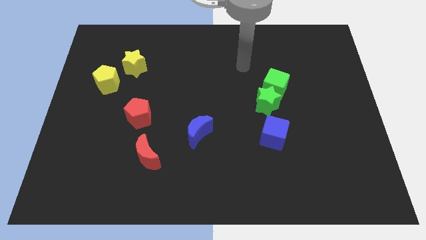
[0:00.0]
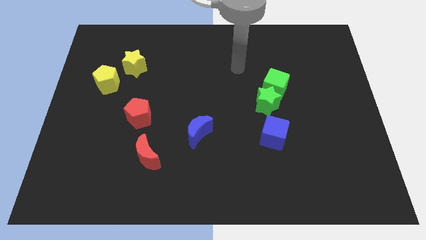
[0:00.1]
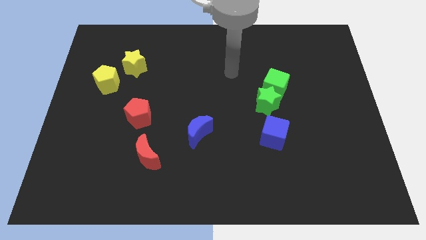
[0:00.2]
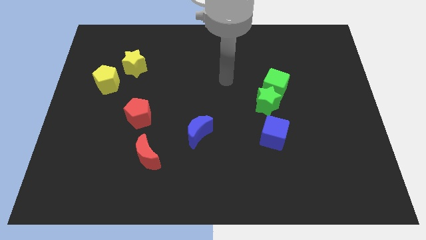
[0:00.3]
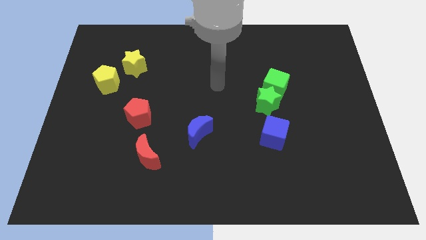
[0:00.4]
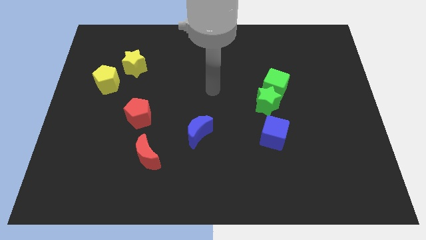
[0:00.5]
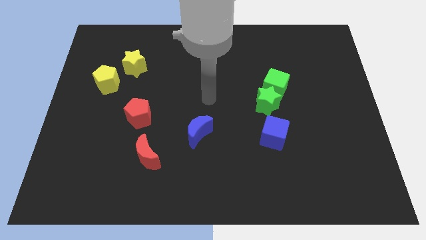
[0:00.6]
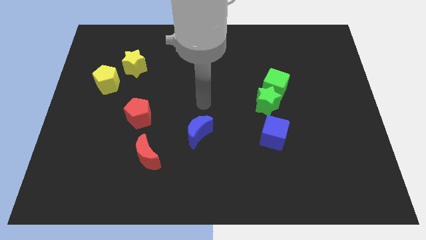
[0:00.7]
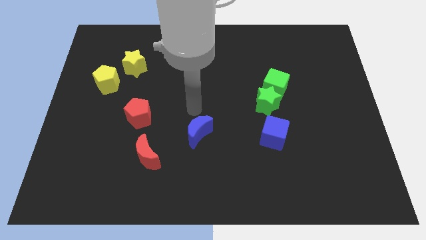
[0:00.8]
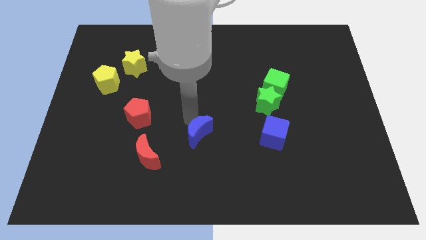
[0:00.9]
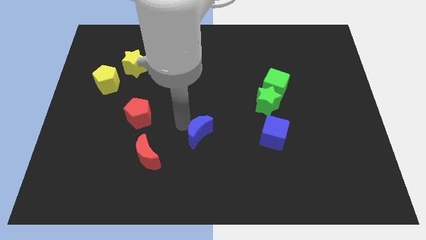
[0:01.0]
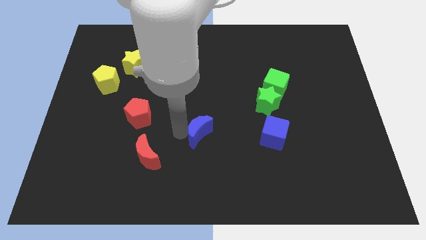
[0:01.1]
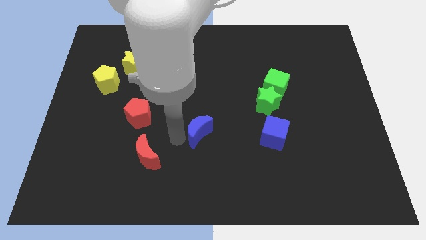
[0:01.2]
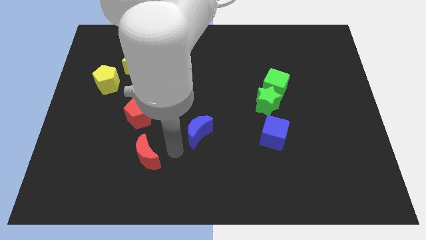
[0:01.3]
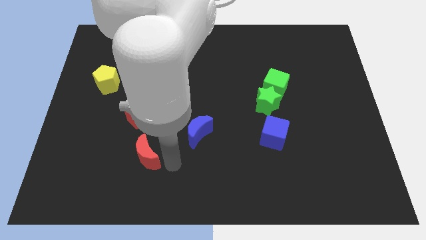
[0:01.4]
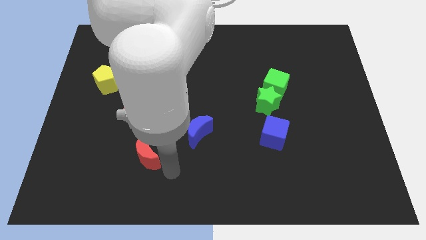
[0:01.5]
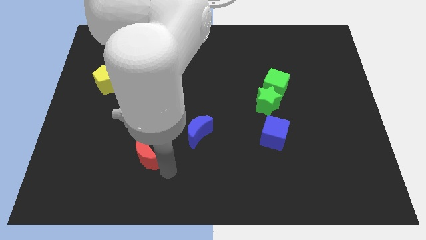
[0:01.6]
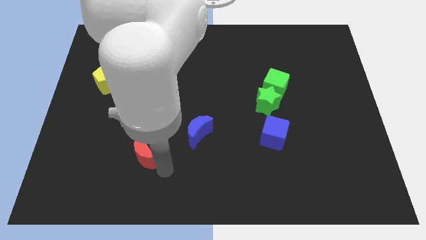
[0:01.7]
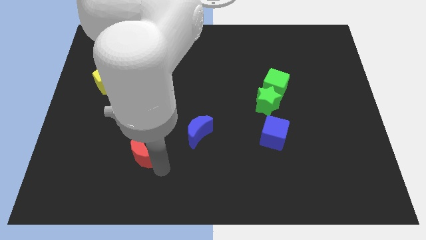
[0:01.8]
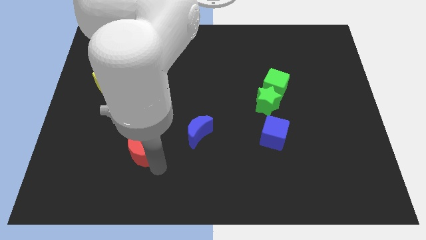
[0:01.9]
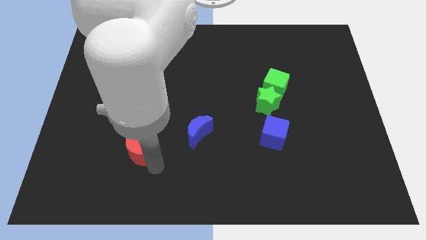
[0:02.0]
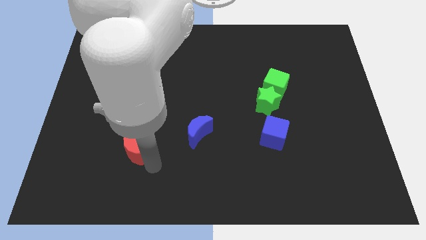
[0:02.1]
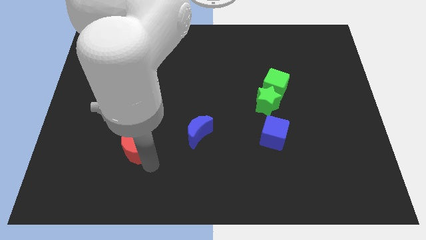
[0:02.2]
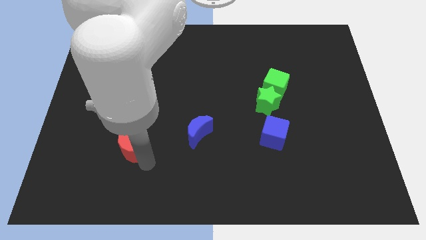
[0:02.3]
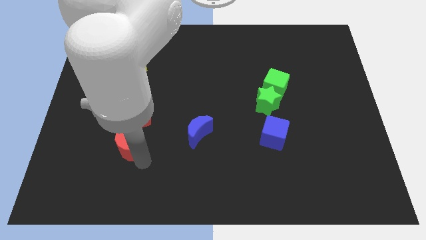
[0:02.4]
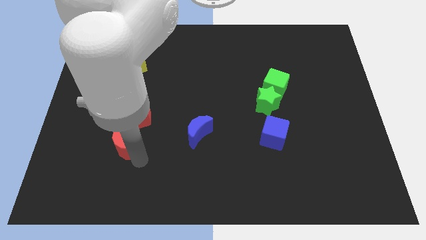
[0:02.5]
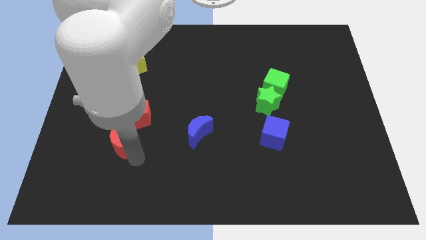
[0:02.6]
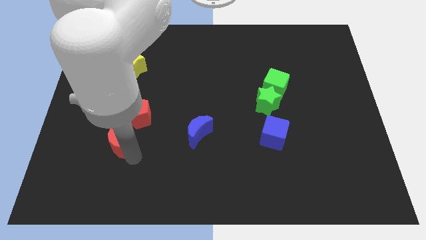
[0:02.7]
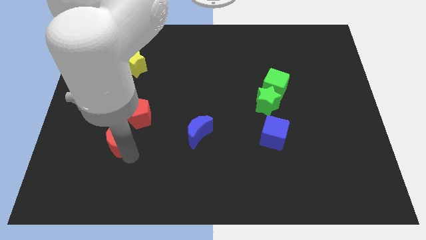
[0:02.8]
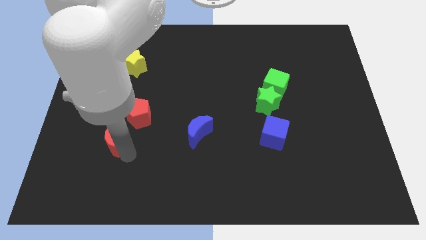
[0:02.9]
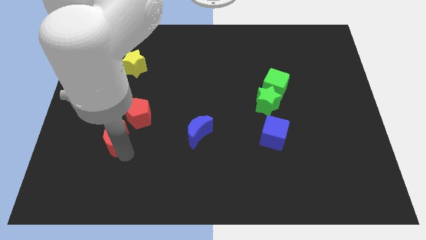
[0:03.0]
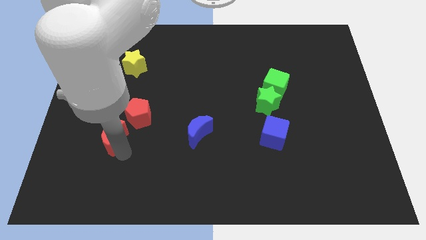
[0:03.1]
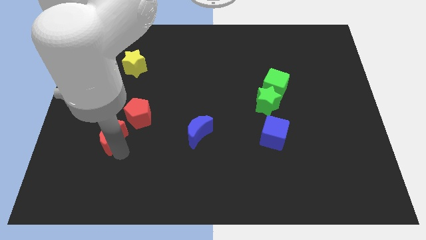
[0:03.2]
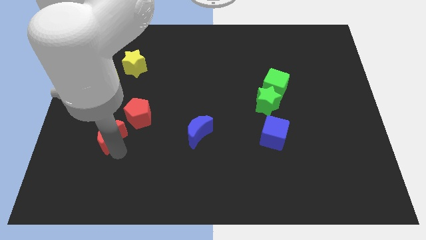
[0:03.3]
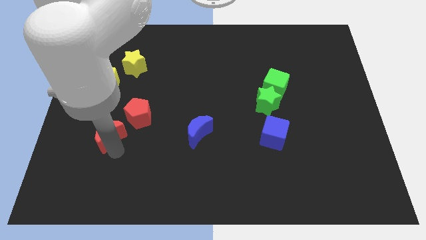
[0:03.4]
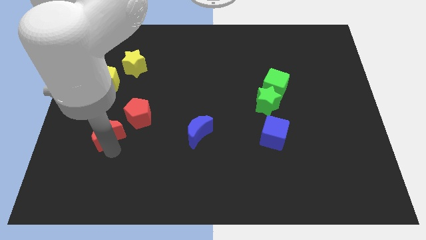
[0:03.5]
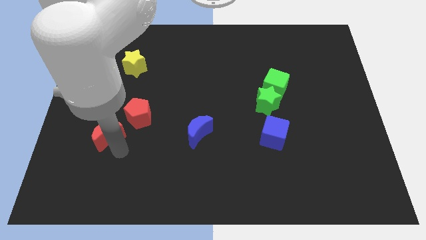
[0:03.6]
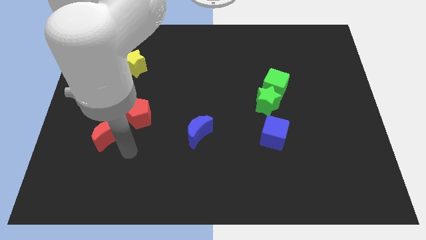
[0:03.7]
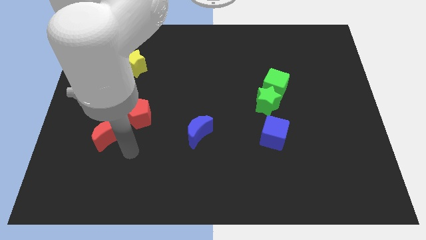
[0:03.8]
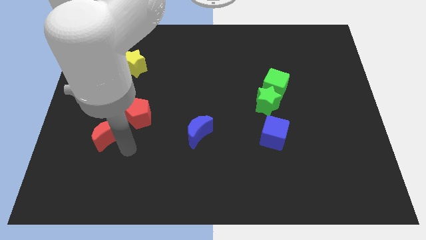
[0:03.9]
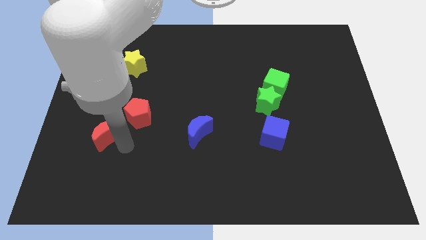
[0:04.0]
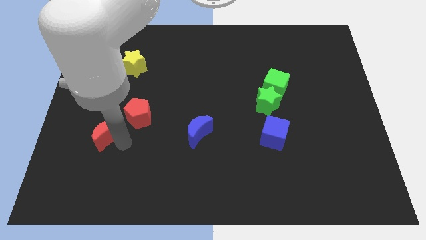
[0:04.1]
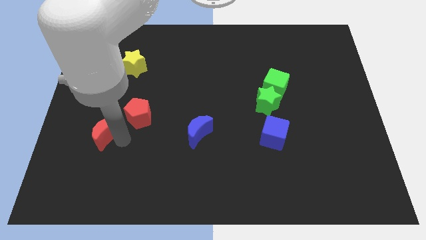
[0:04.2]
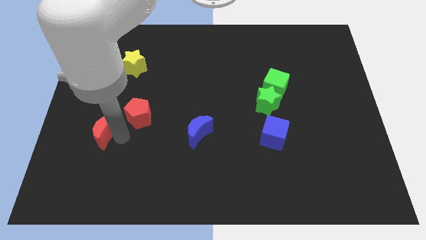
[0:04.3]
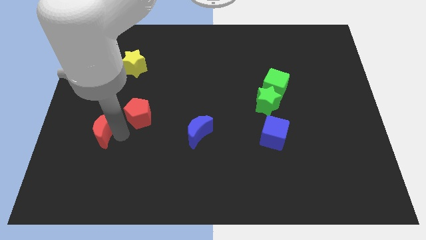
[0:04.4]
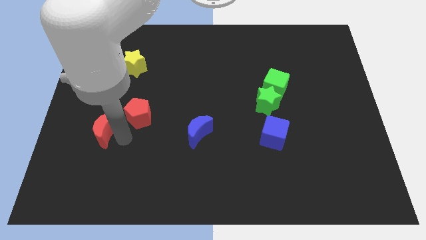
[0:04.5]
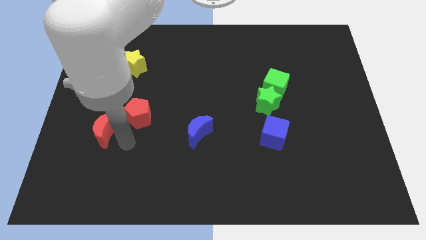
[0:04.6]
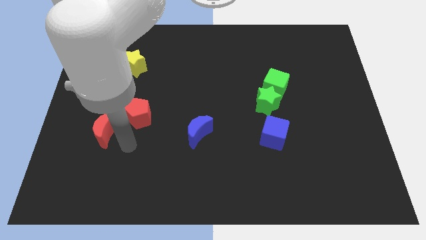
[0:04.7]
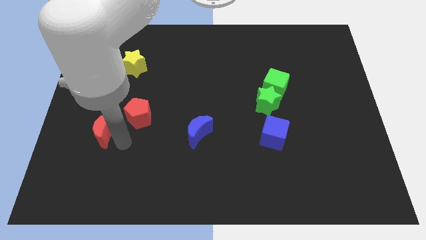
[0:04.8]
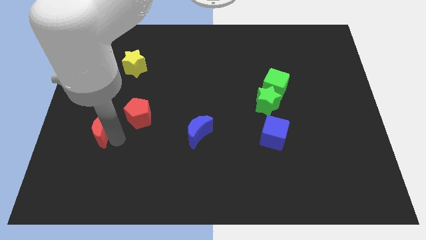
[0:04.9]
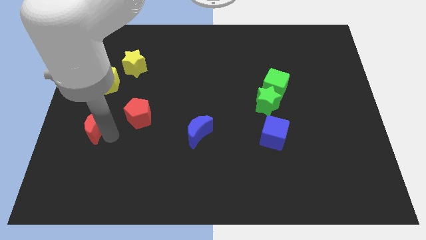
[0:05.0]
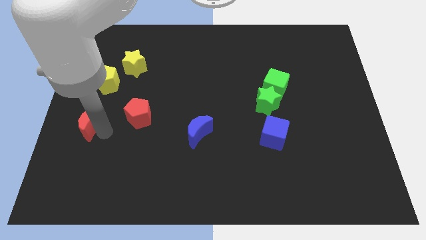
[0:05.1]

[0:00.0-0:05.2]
put the red moon to the left side

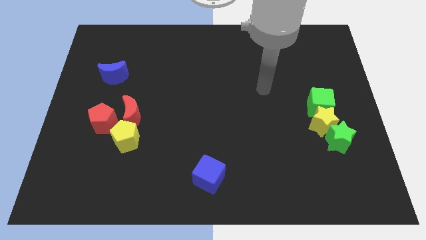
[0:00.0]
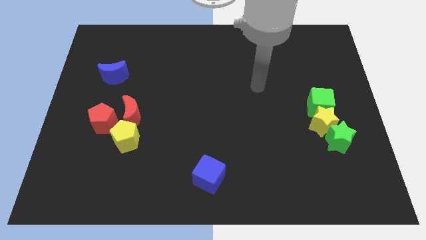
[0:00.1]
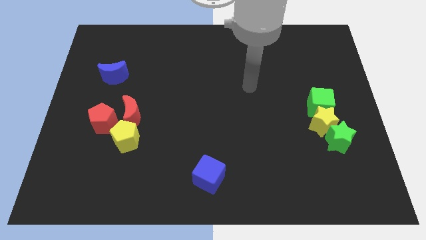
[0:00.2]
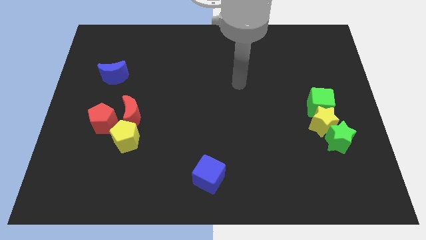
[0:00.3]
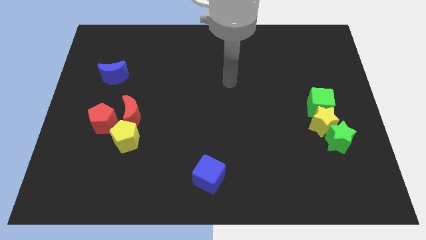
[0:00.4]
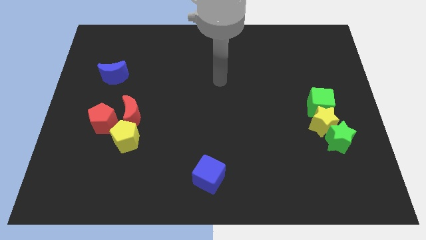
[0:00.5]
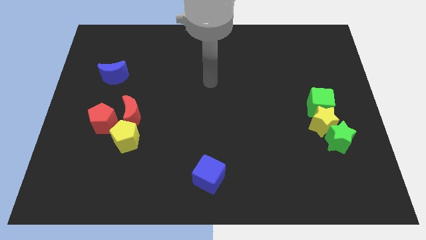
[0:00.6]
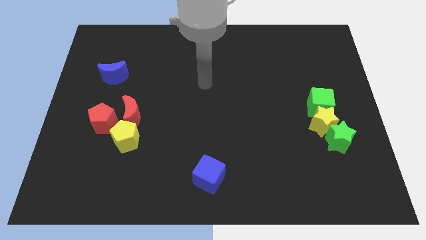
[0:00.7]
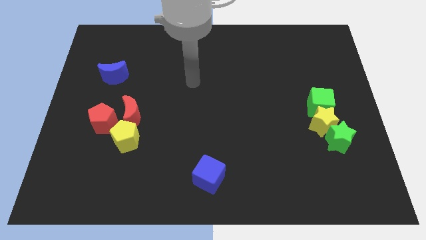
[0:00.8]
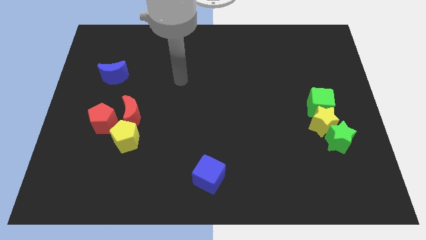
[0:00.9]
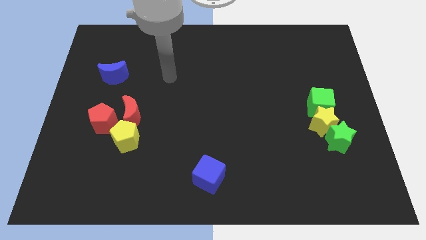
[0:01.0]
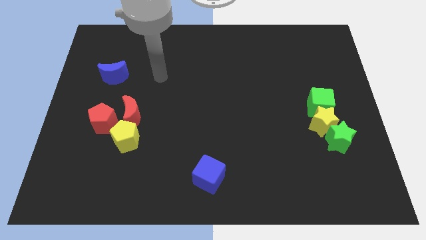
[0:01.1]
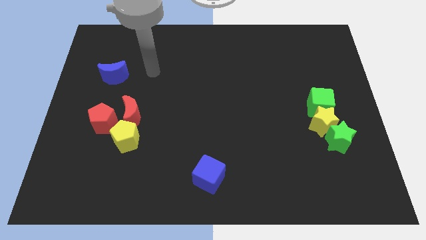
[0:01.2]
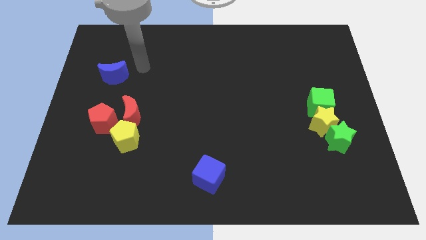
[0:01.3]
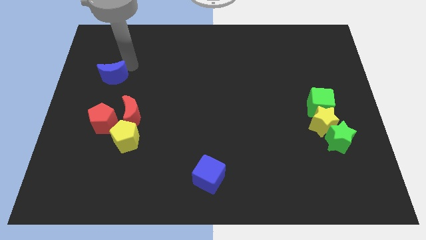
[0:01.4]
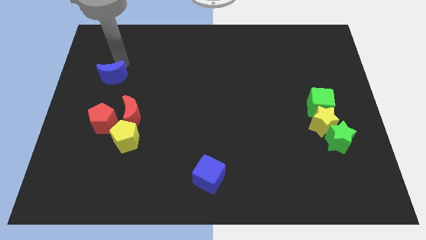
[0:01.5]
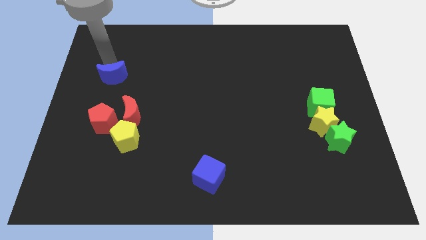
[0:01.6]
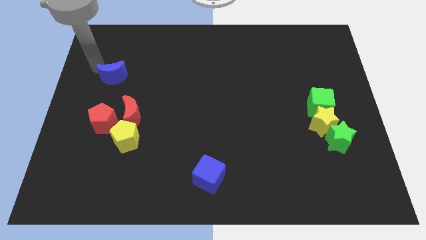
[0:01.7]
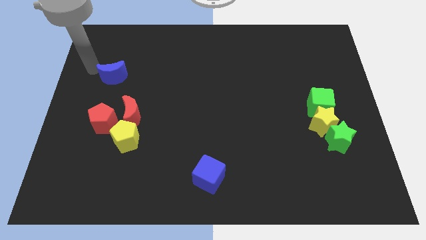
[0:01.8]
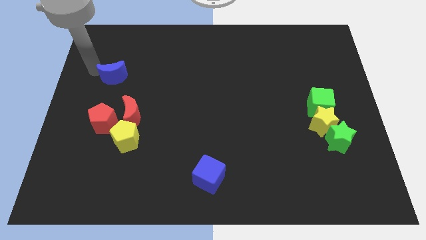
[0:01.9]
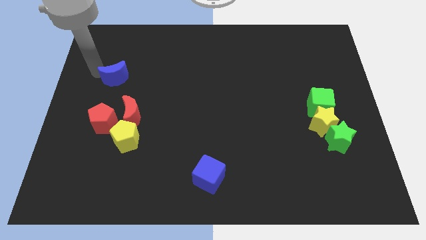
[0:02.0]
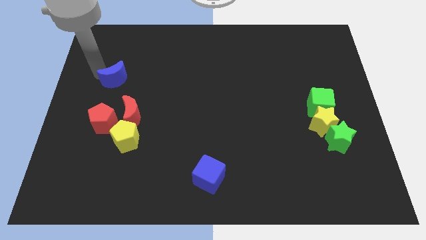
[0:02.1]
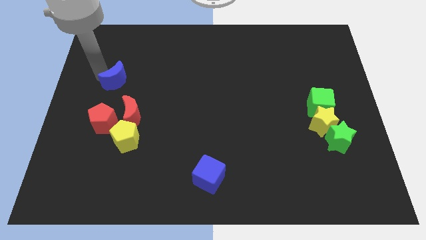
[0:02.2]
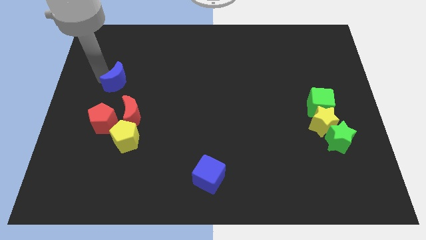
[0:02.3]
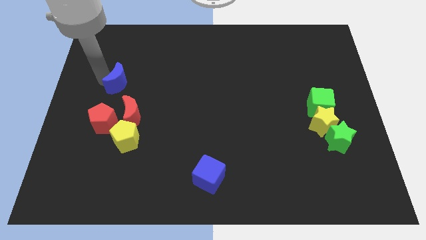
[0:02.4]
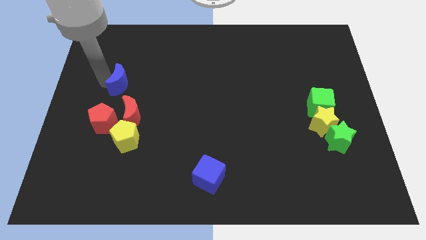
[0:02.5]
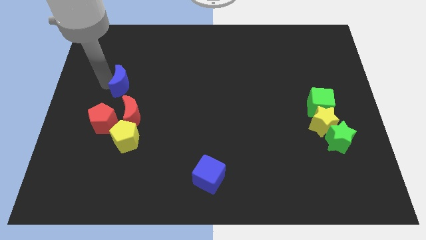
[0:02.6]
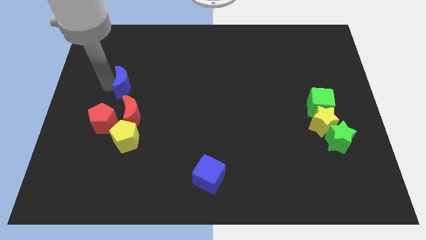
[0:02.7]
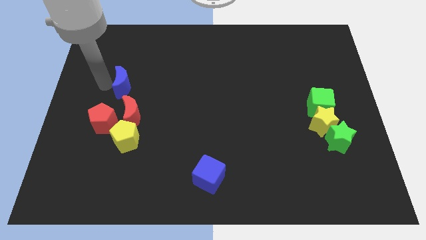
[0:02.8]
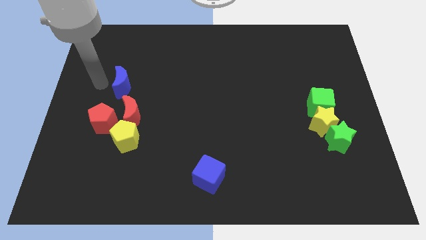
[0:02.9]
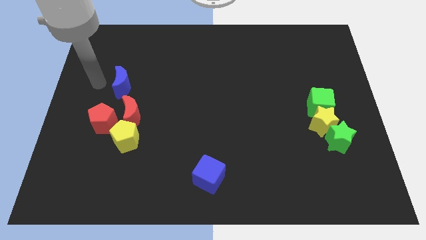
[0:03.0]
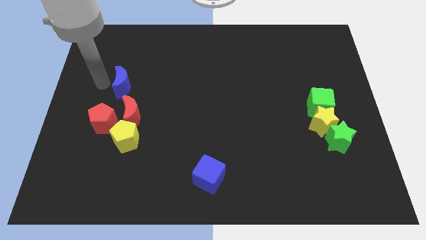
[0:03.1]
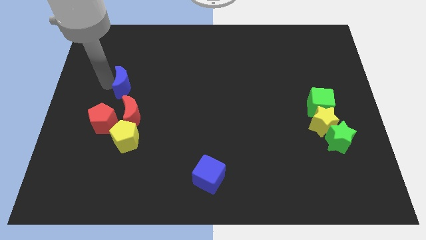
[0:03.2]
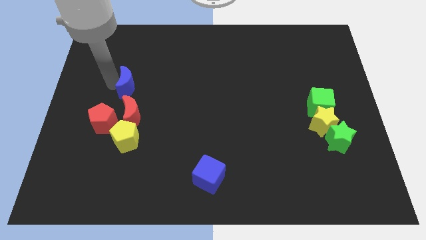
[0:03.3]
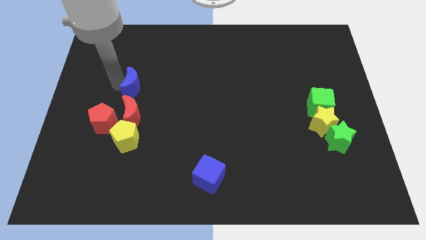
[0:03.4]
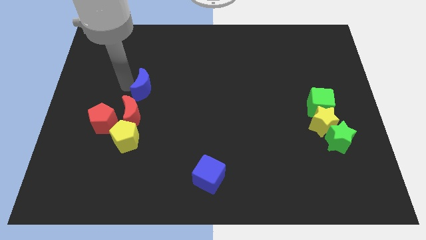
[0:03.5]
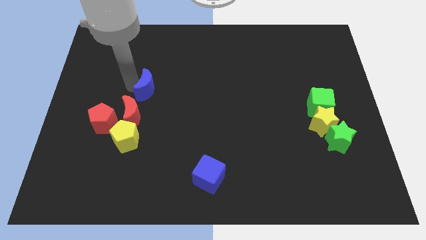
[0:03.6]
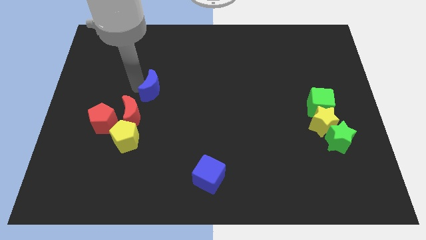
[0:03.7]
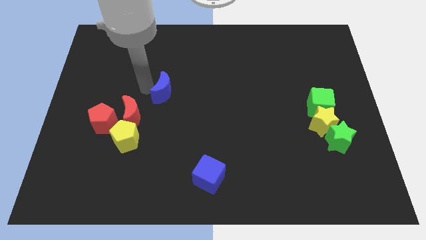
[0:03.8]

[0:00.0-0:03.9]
move the blue moon to the center
